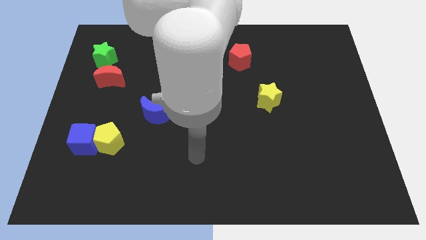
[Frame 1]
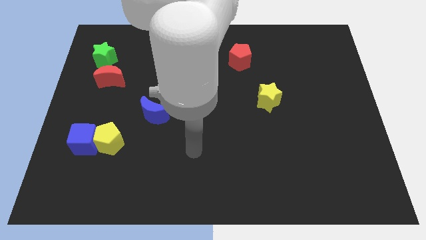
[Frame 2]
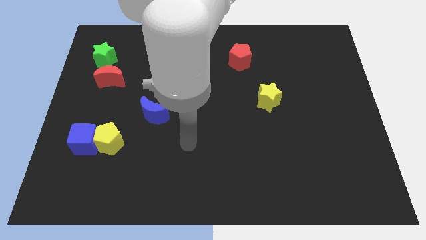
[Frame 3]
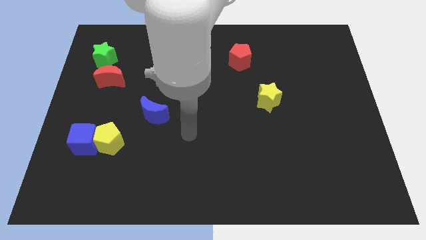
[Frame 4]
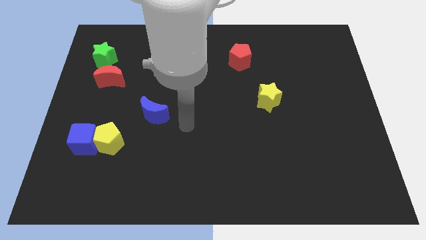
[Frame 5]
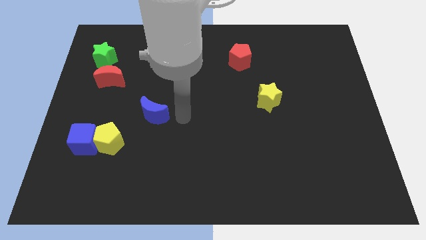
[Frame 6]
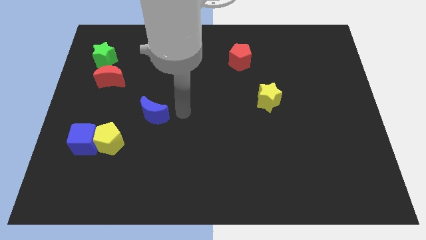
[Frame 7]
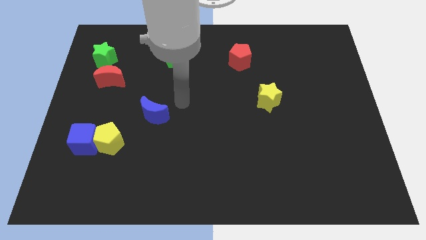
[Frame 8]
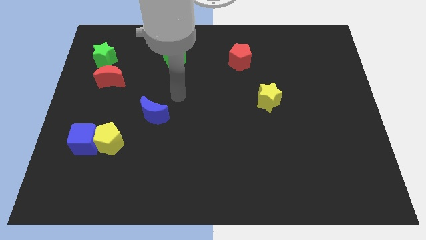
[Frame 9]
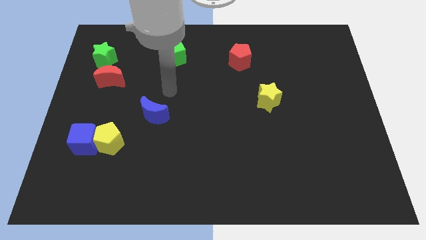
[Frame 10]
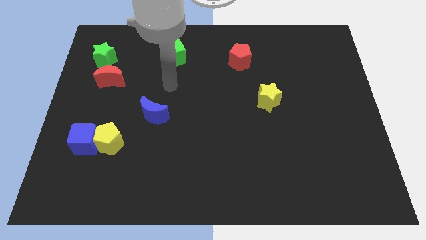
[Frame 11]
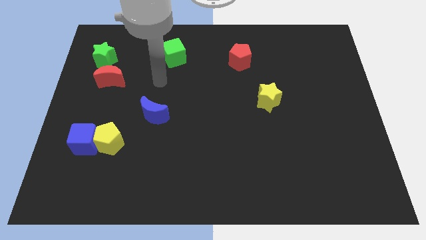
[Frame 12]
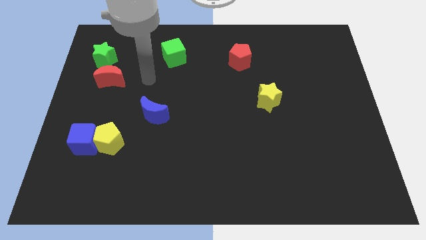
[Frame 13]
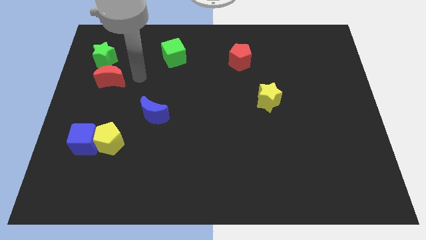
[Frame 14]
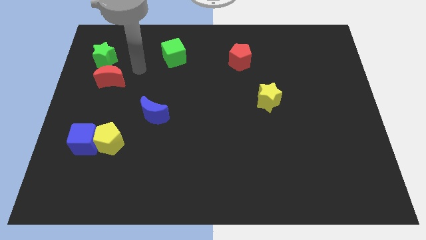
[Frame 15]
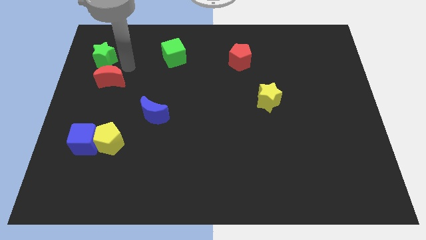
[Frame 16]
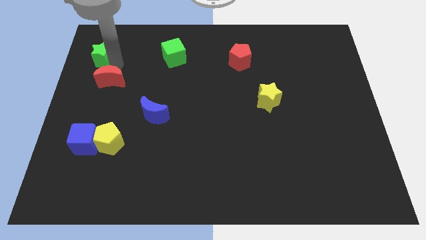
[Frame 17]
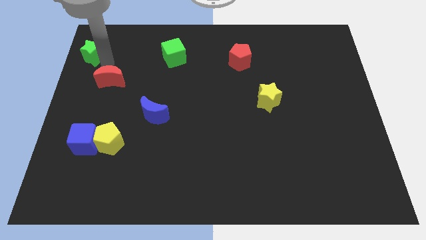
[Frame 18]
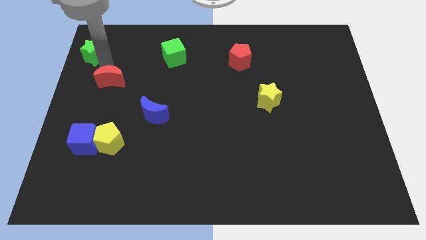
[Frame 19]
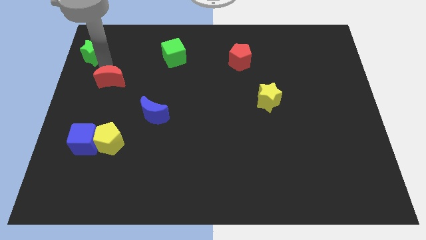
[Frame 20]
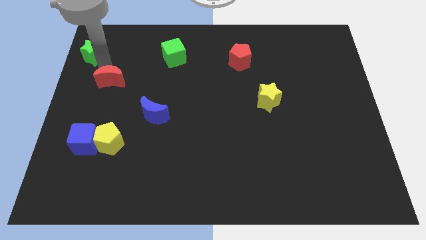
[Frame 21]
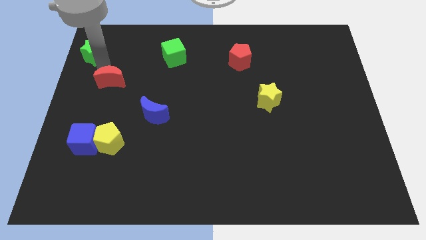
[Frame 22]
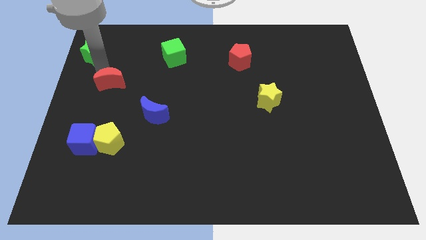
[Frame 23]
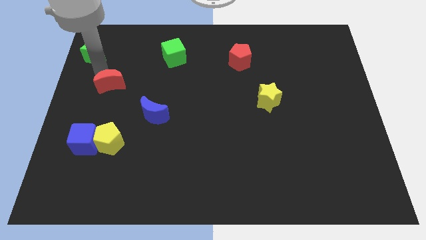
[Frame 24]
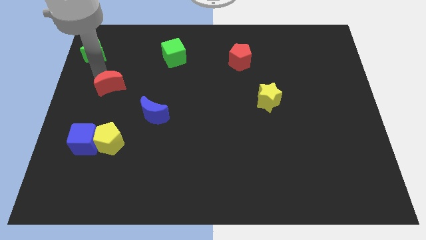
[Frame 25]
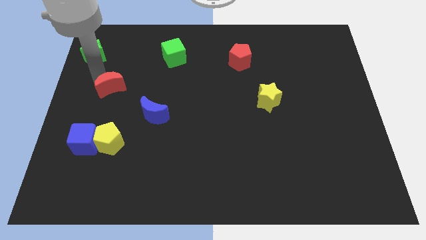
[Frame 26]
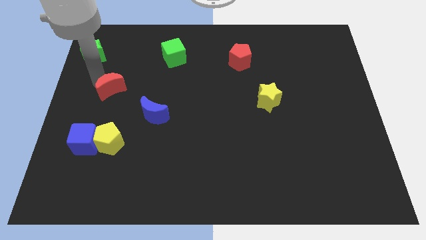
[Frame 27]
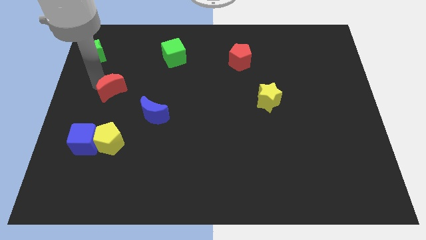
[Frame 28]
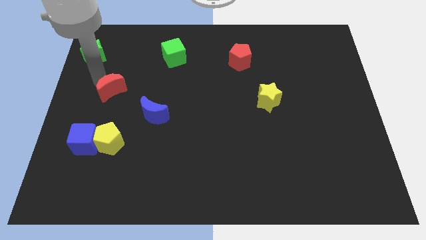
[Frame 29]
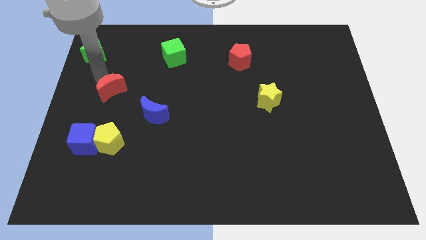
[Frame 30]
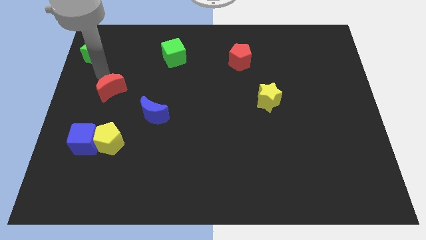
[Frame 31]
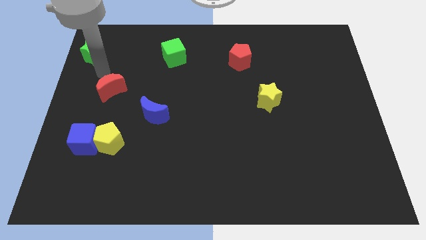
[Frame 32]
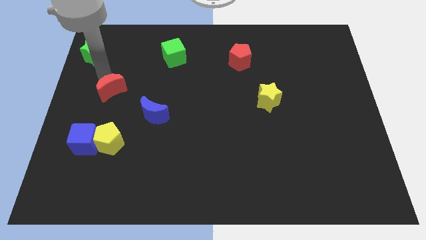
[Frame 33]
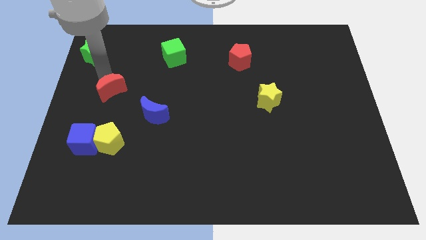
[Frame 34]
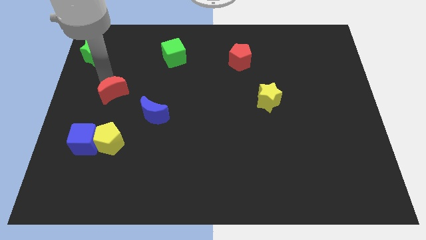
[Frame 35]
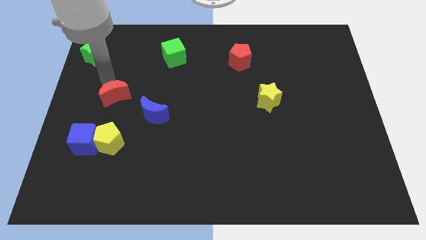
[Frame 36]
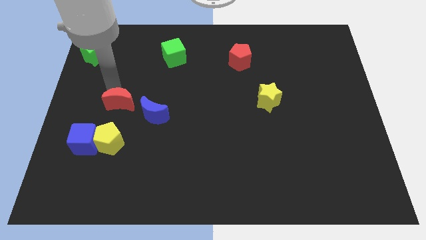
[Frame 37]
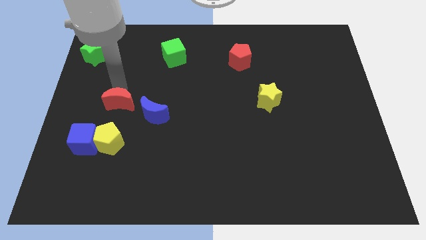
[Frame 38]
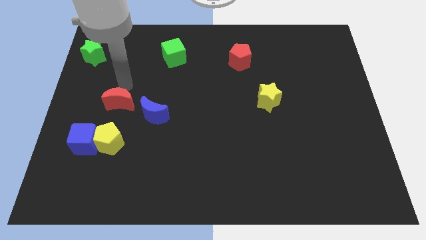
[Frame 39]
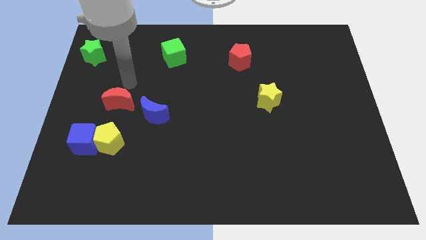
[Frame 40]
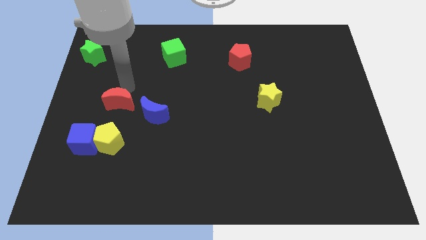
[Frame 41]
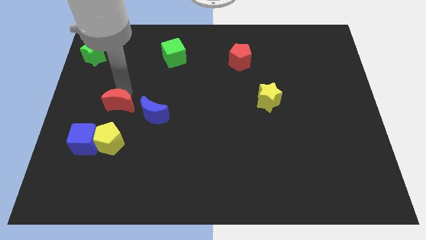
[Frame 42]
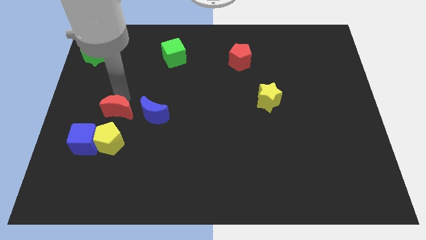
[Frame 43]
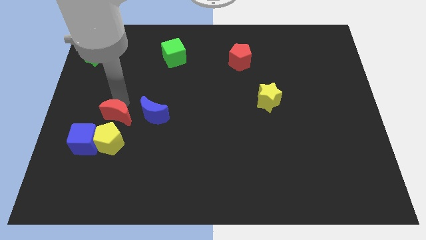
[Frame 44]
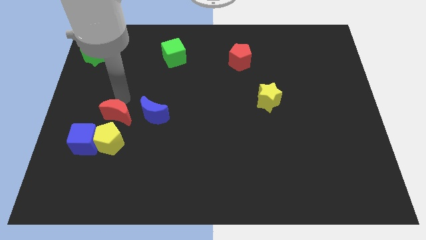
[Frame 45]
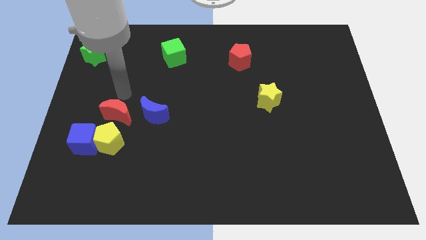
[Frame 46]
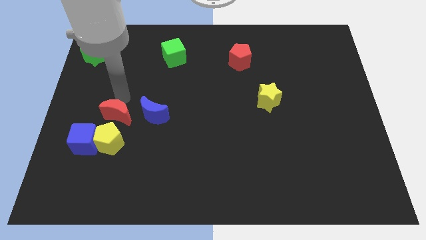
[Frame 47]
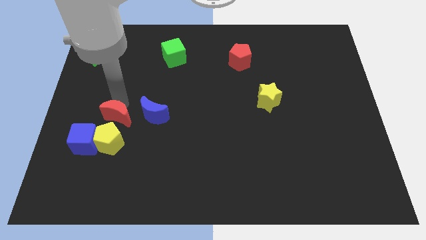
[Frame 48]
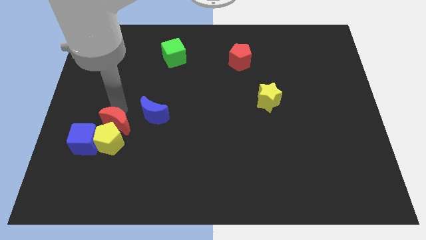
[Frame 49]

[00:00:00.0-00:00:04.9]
put the red moon to the yellow pentagon

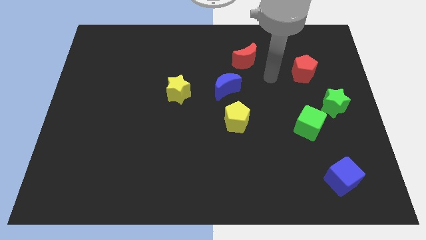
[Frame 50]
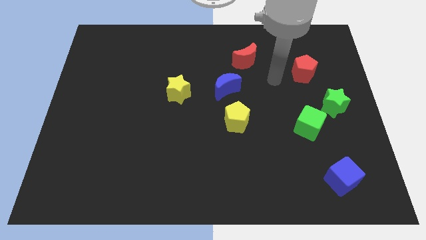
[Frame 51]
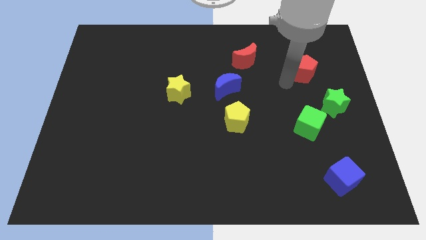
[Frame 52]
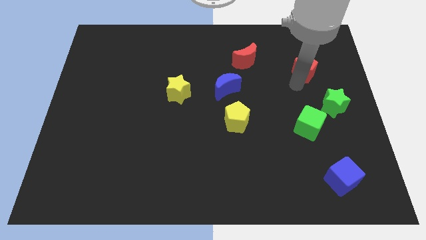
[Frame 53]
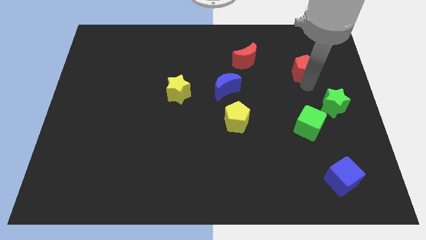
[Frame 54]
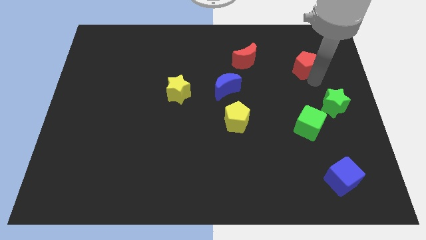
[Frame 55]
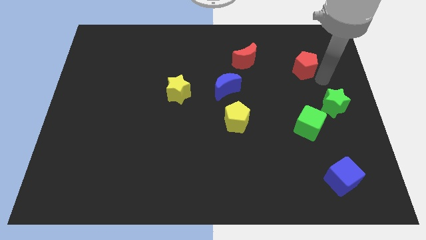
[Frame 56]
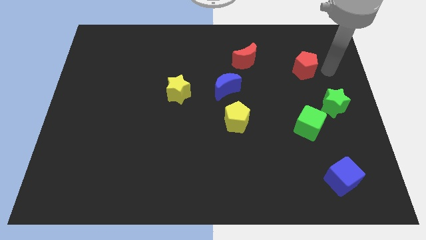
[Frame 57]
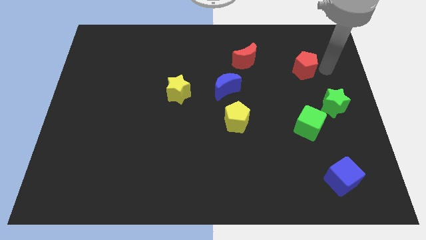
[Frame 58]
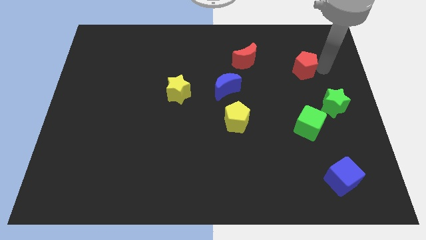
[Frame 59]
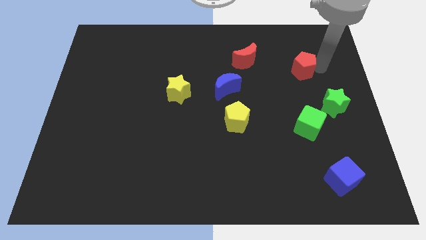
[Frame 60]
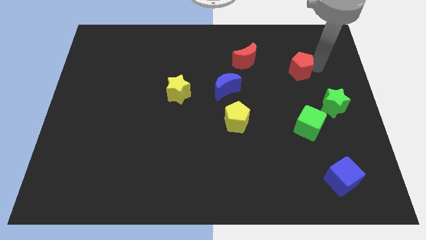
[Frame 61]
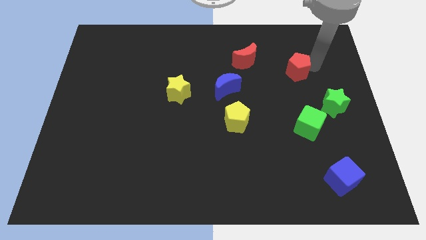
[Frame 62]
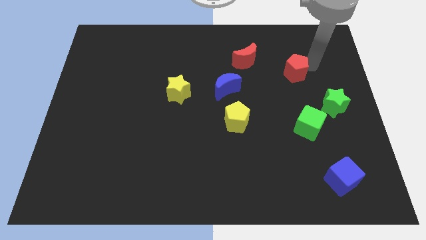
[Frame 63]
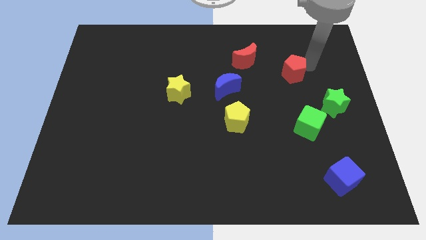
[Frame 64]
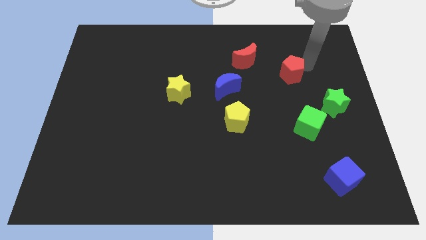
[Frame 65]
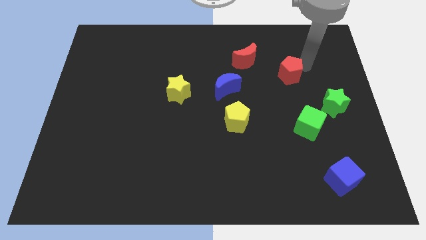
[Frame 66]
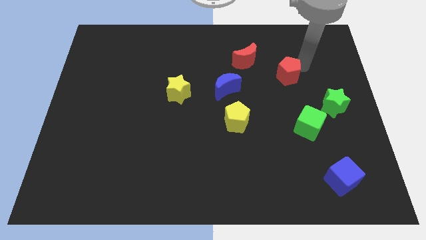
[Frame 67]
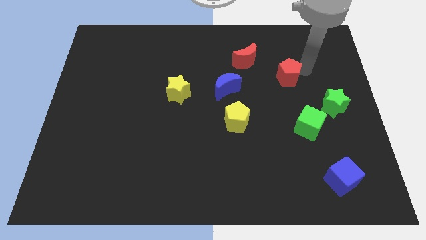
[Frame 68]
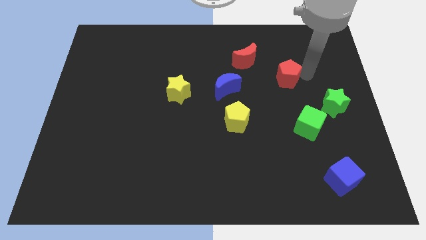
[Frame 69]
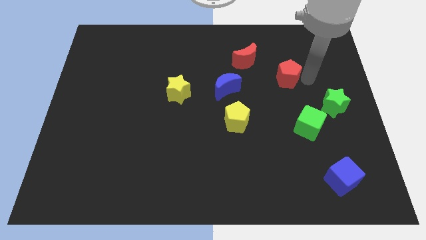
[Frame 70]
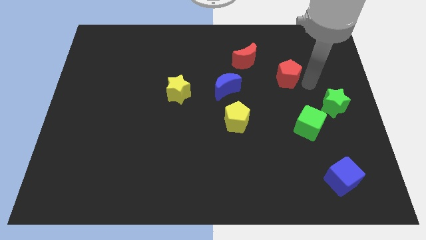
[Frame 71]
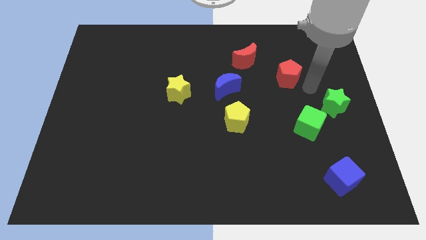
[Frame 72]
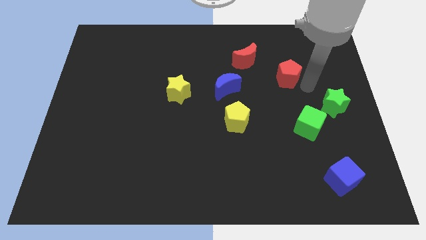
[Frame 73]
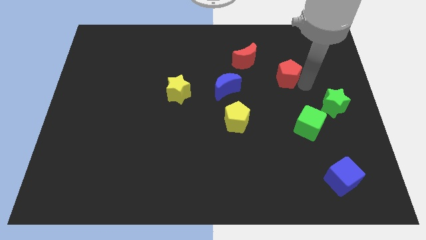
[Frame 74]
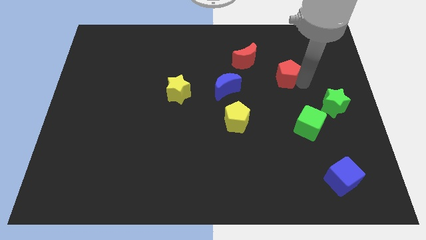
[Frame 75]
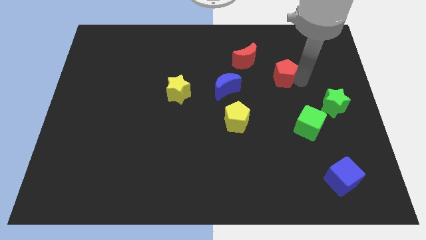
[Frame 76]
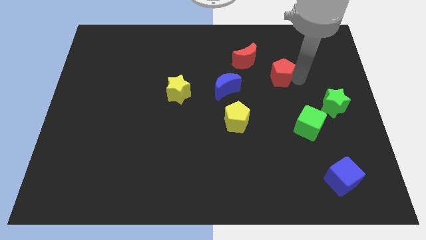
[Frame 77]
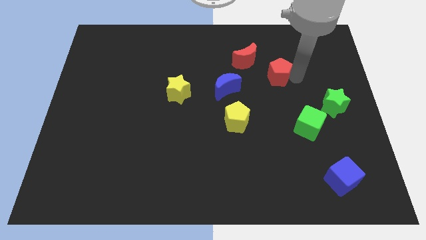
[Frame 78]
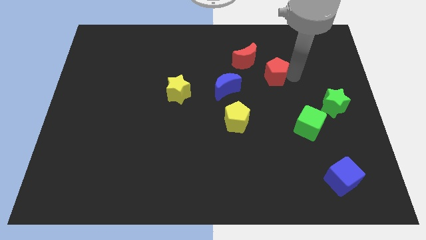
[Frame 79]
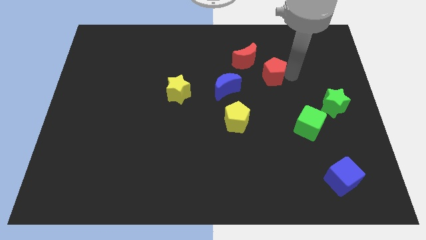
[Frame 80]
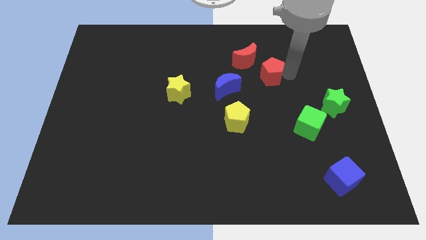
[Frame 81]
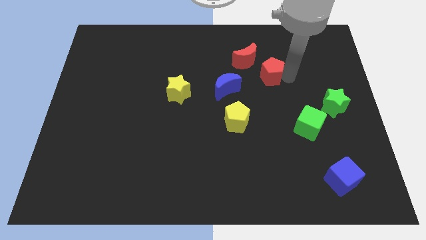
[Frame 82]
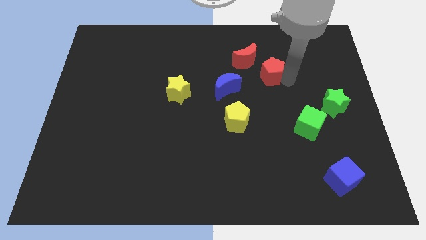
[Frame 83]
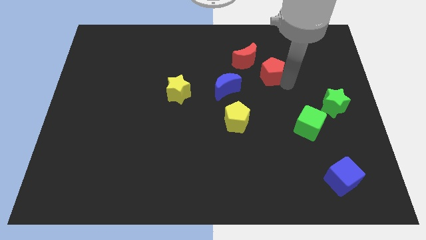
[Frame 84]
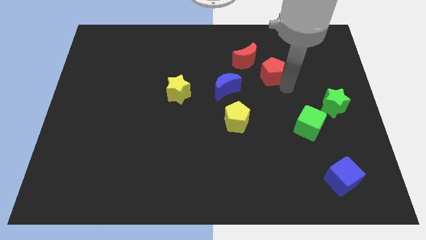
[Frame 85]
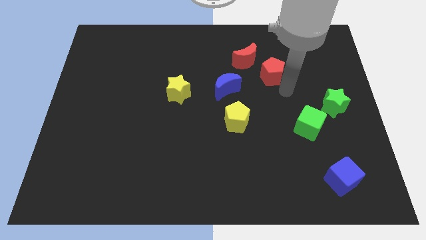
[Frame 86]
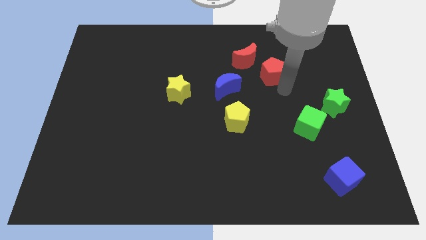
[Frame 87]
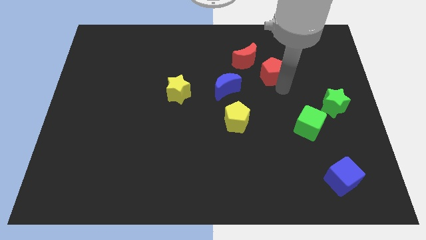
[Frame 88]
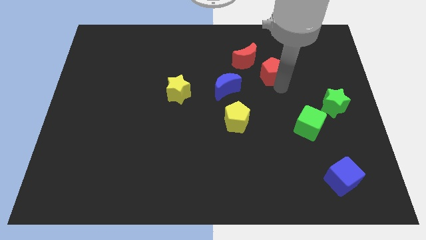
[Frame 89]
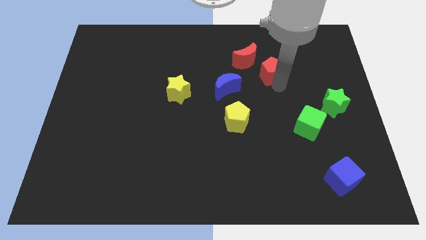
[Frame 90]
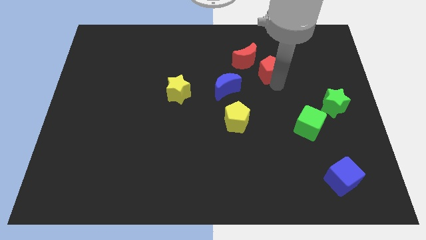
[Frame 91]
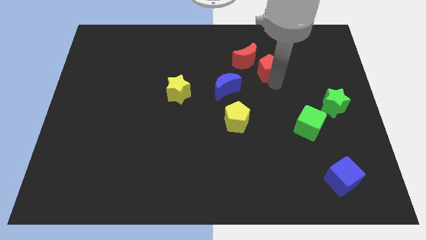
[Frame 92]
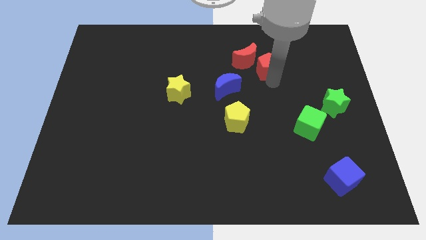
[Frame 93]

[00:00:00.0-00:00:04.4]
move the red pentagon close to the red moon
